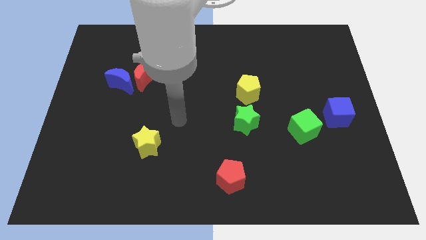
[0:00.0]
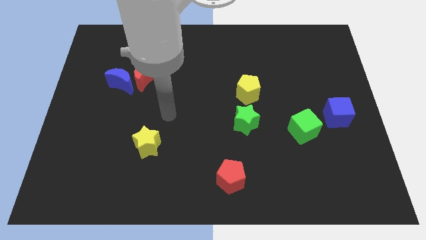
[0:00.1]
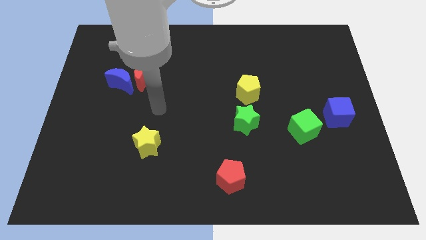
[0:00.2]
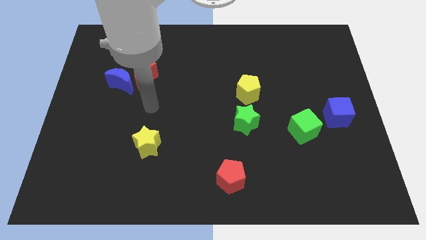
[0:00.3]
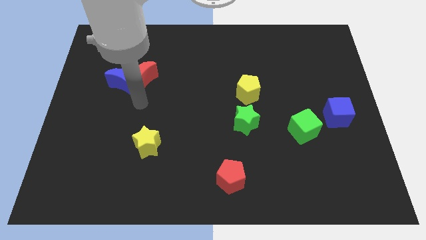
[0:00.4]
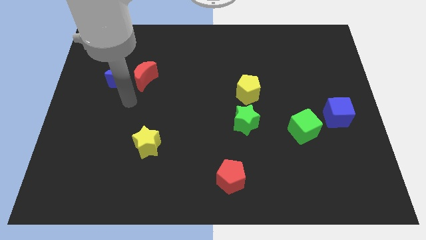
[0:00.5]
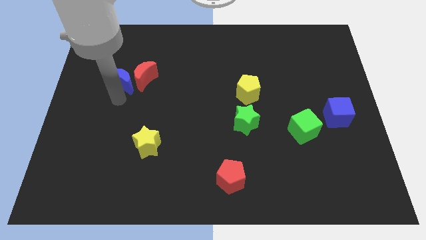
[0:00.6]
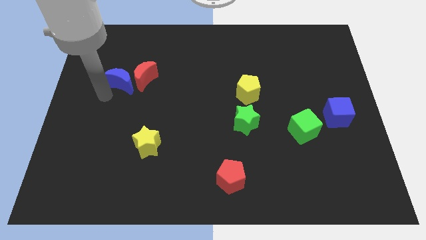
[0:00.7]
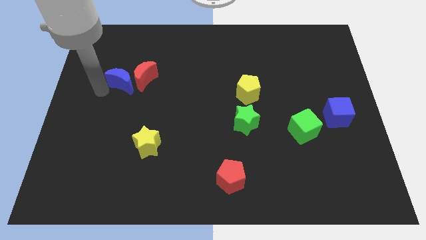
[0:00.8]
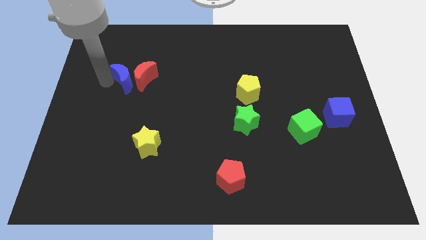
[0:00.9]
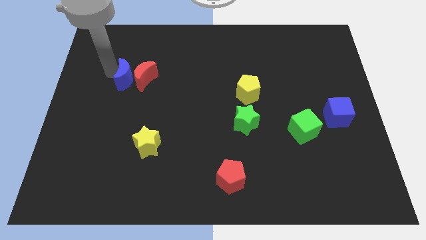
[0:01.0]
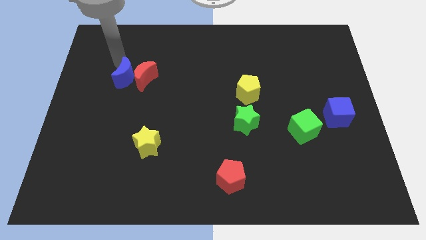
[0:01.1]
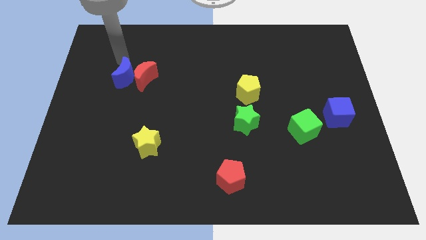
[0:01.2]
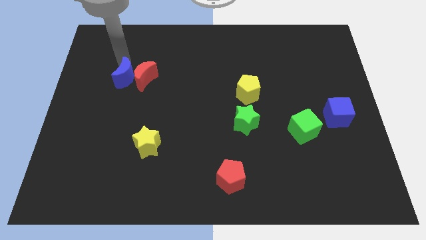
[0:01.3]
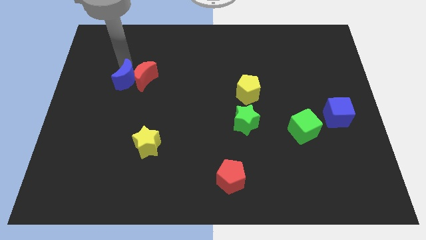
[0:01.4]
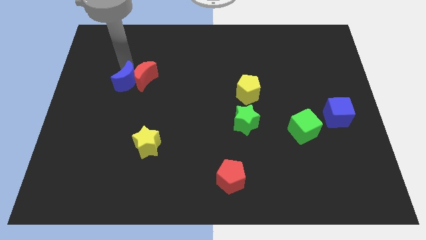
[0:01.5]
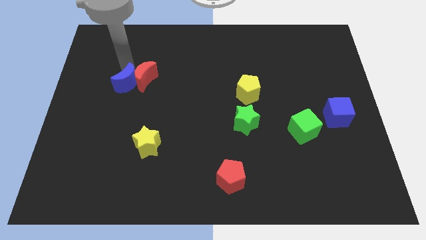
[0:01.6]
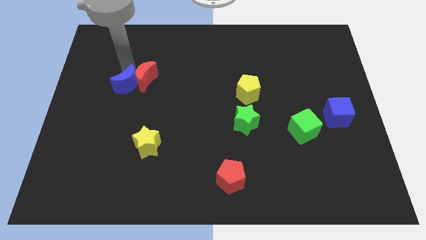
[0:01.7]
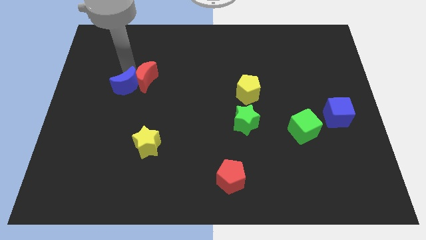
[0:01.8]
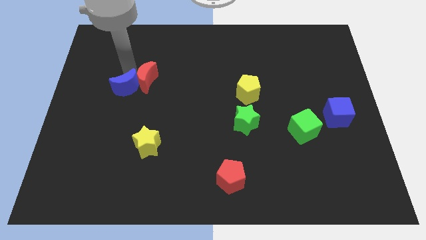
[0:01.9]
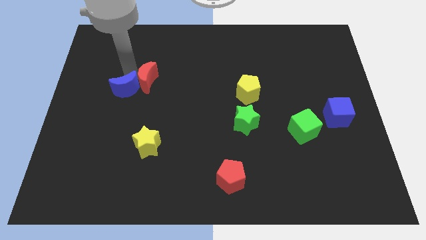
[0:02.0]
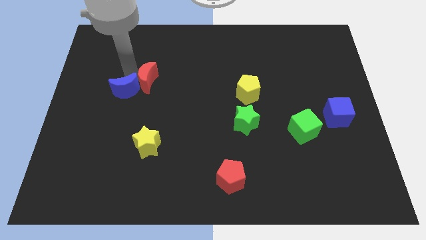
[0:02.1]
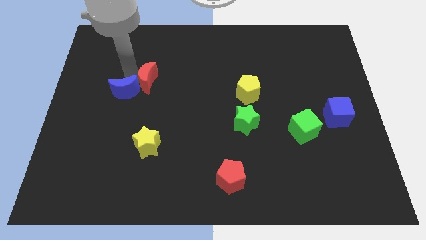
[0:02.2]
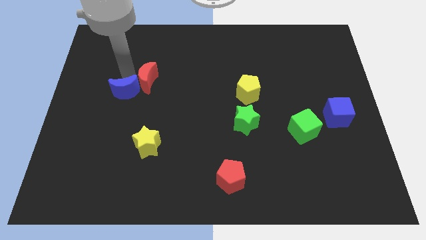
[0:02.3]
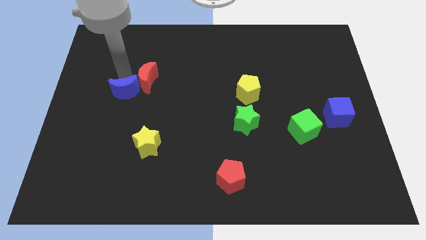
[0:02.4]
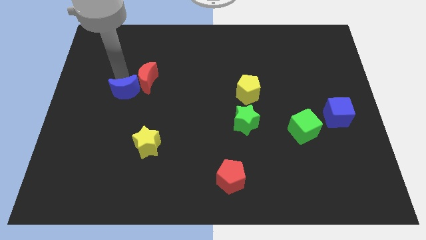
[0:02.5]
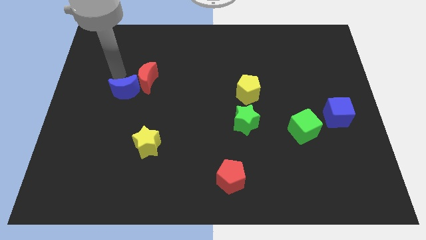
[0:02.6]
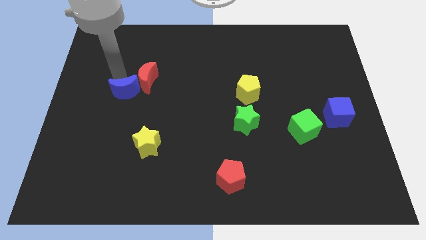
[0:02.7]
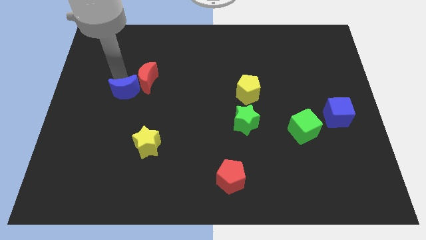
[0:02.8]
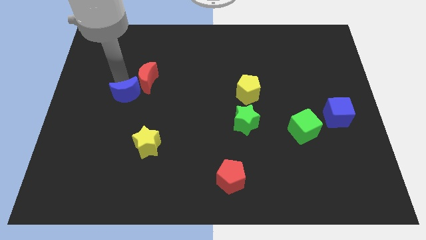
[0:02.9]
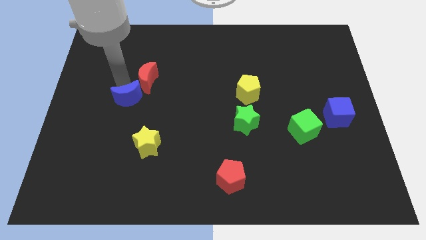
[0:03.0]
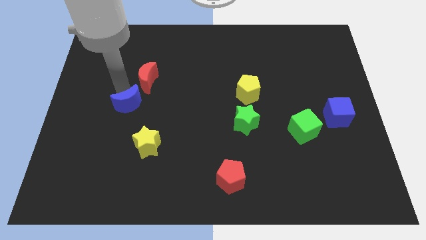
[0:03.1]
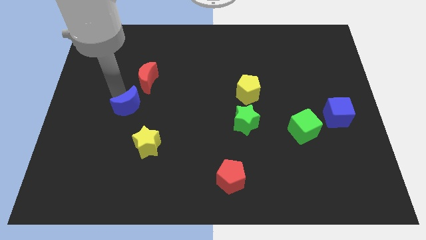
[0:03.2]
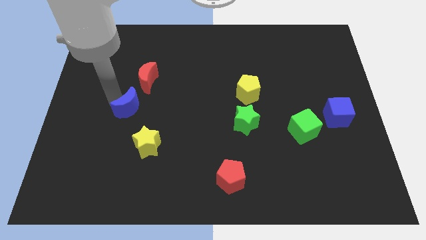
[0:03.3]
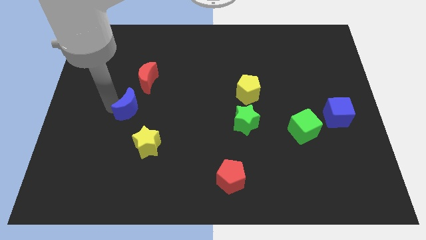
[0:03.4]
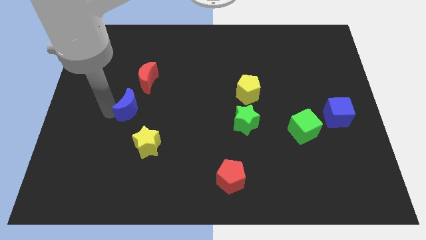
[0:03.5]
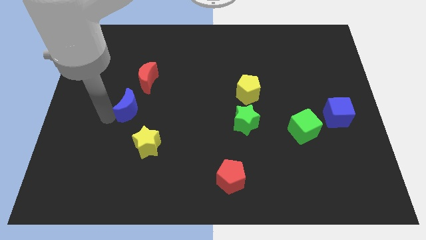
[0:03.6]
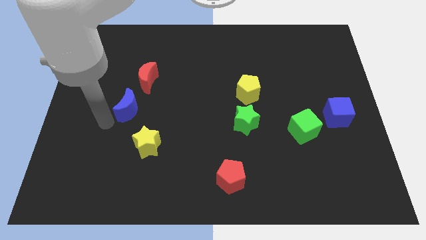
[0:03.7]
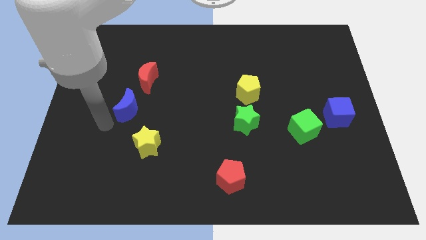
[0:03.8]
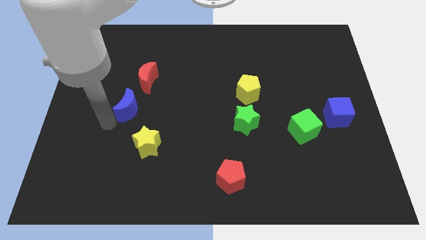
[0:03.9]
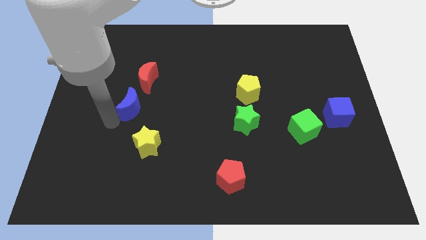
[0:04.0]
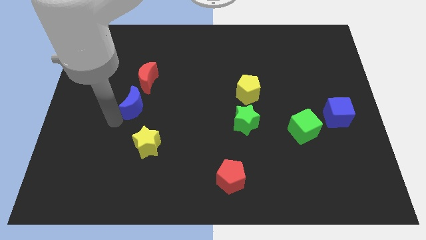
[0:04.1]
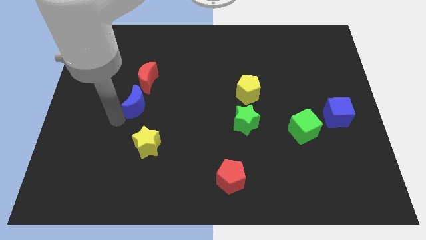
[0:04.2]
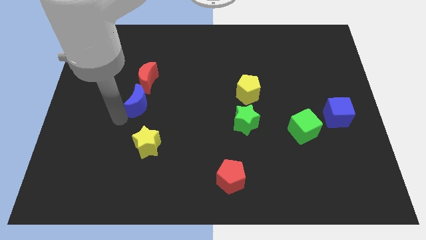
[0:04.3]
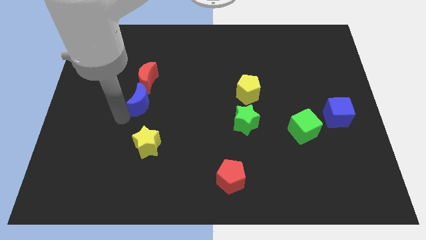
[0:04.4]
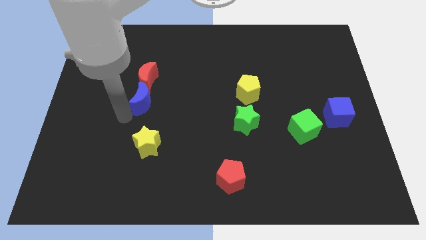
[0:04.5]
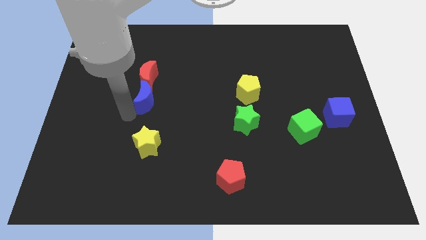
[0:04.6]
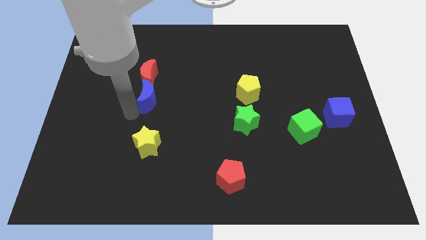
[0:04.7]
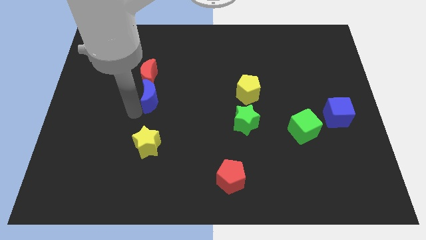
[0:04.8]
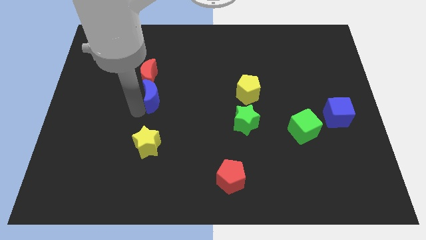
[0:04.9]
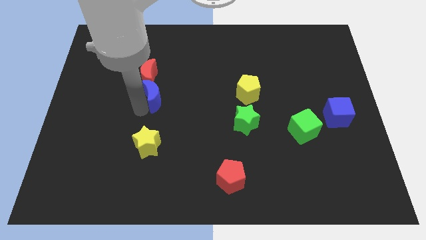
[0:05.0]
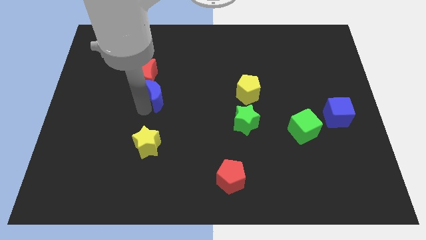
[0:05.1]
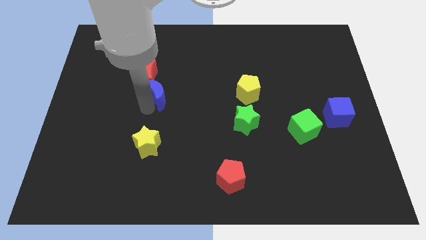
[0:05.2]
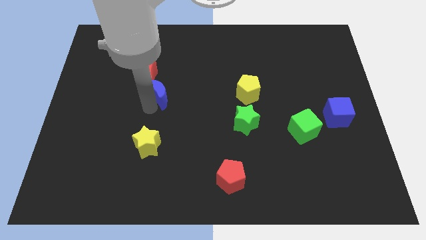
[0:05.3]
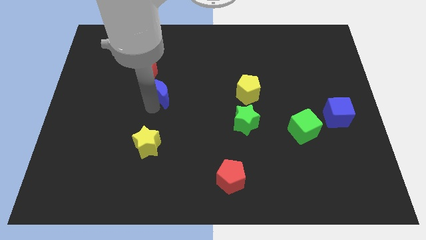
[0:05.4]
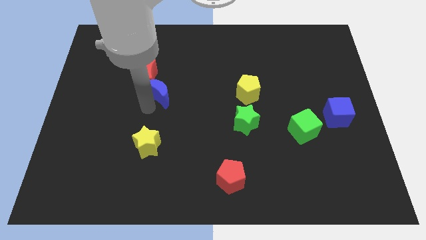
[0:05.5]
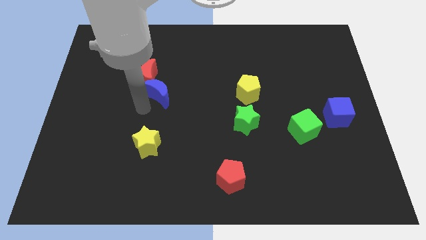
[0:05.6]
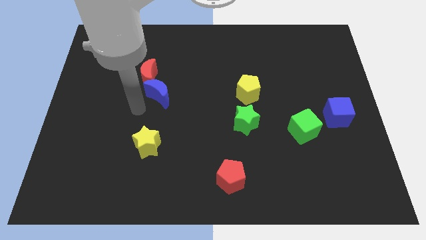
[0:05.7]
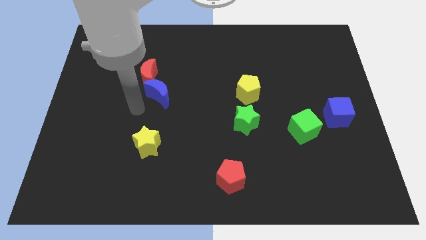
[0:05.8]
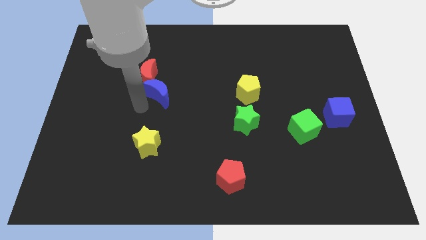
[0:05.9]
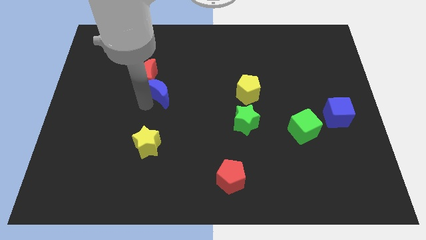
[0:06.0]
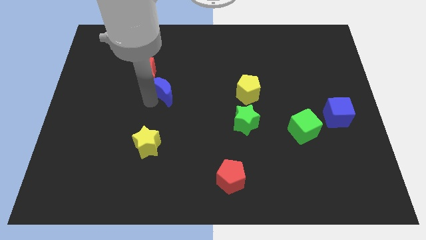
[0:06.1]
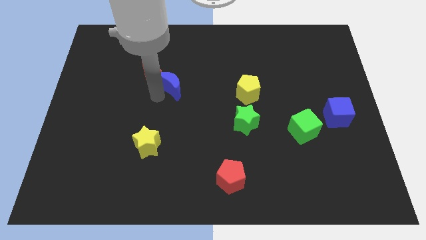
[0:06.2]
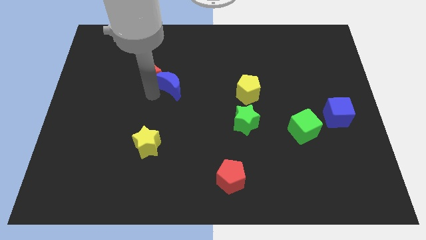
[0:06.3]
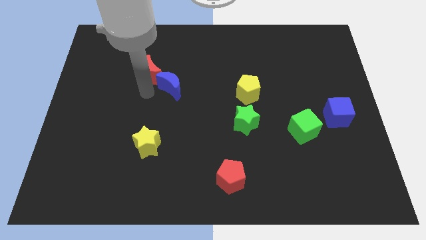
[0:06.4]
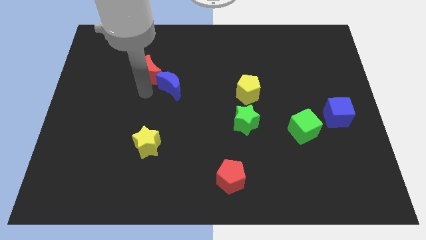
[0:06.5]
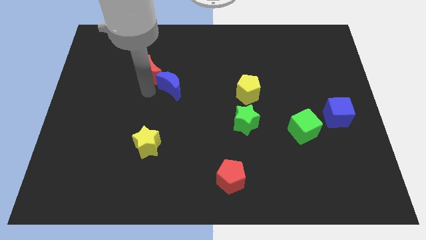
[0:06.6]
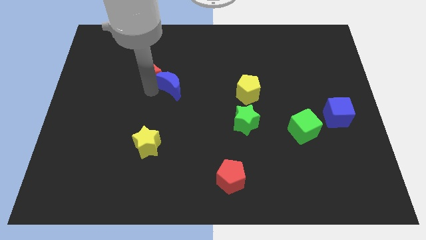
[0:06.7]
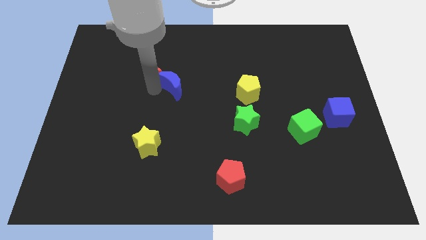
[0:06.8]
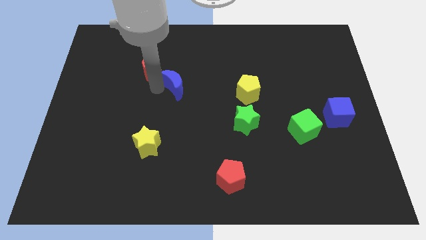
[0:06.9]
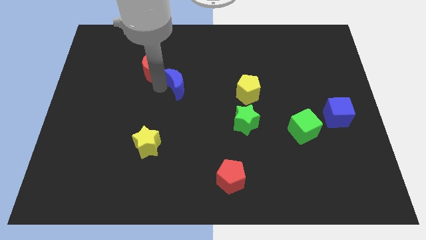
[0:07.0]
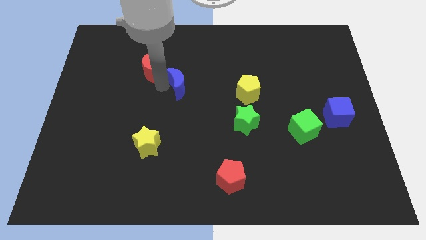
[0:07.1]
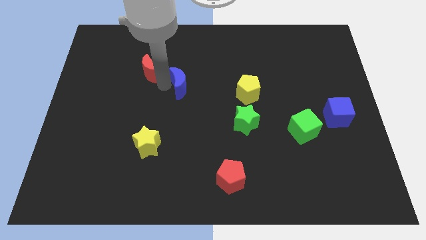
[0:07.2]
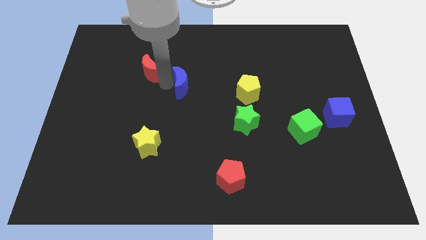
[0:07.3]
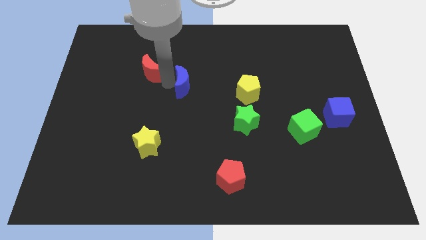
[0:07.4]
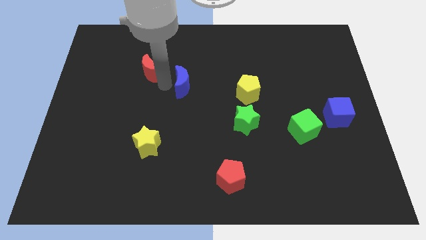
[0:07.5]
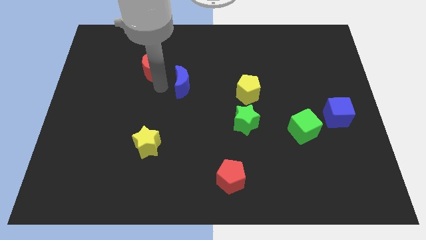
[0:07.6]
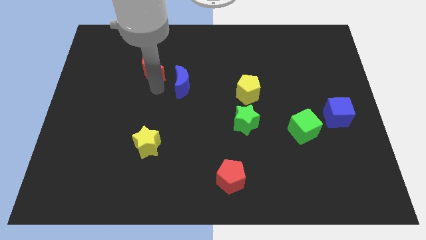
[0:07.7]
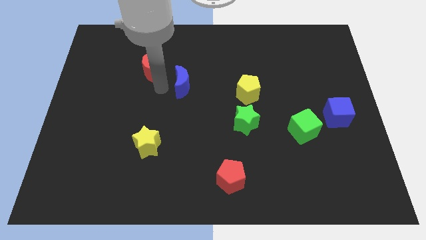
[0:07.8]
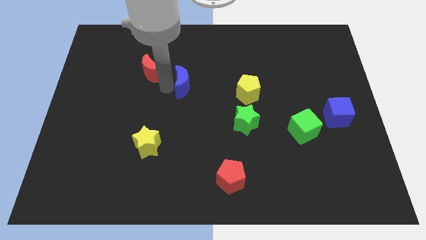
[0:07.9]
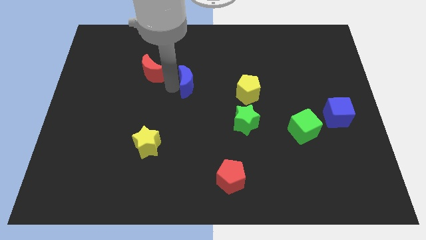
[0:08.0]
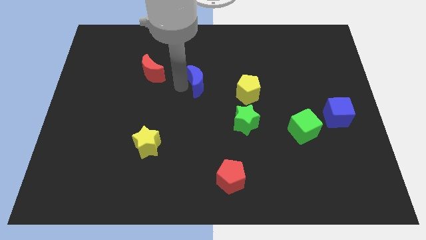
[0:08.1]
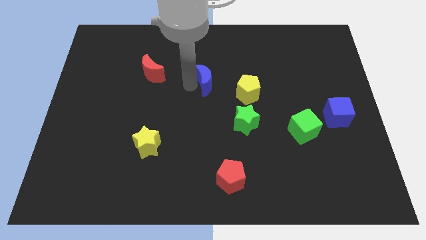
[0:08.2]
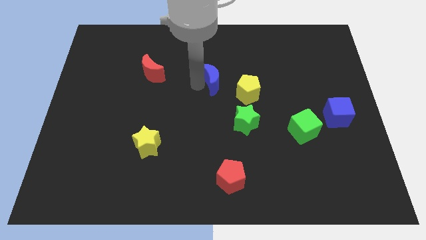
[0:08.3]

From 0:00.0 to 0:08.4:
put the blue moon diagonally up and to the left of the yellow pentagon
